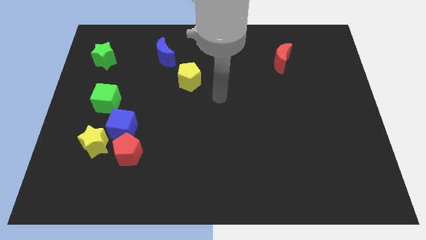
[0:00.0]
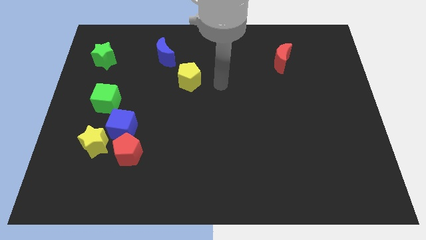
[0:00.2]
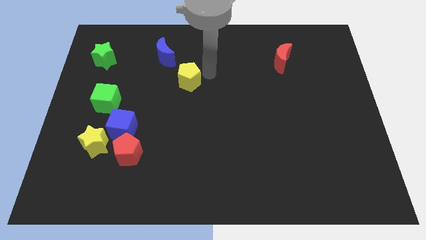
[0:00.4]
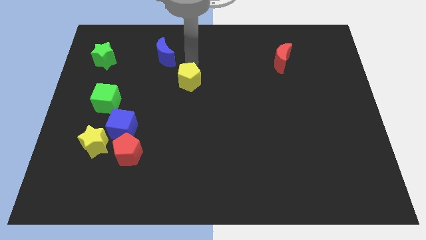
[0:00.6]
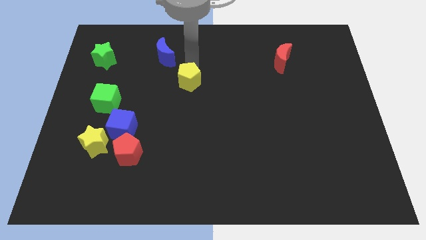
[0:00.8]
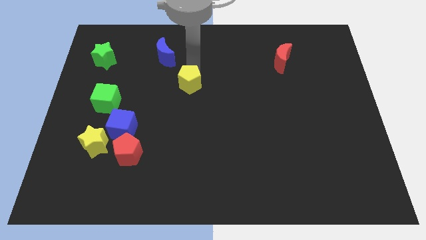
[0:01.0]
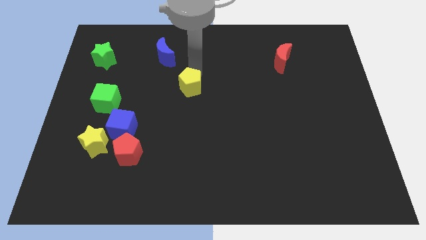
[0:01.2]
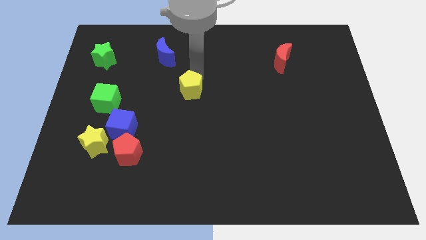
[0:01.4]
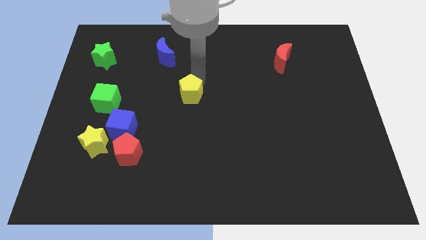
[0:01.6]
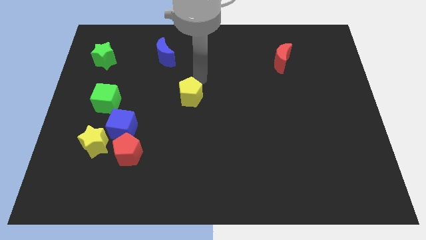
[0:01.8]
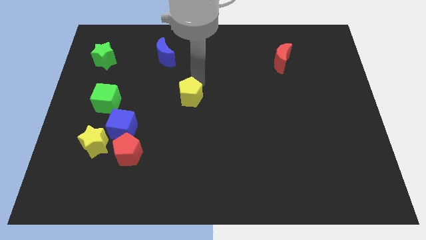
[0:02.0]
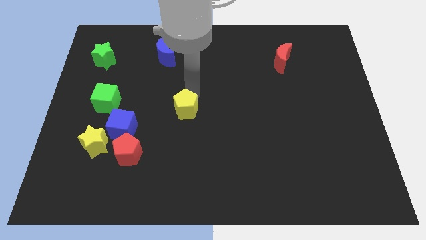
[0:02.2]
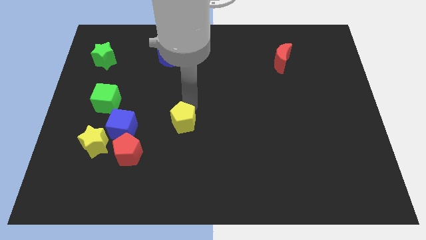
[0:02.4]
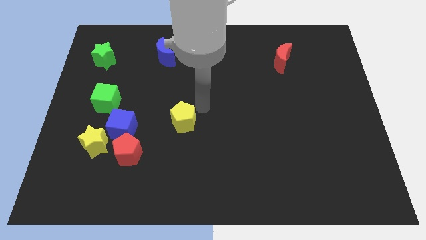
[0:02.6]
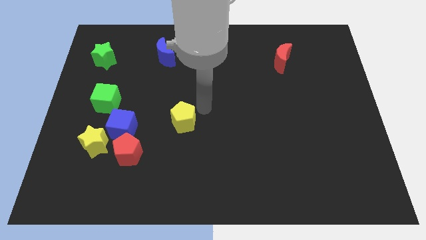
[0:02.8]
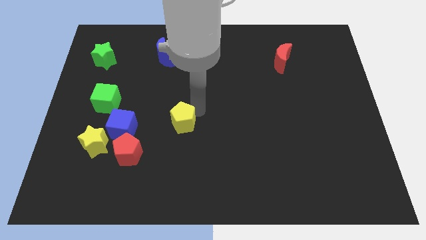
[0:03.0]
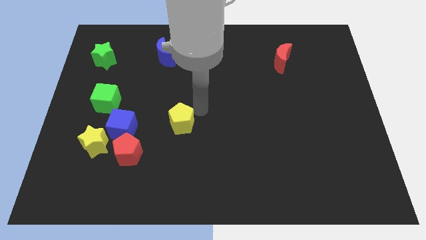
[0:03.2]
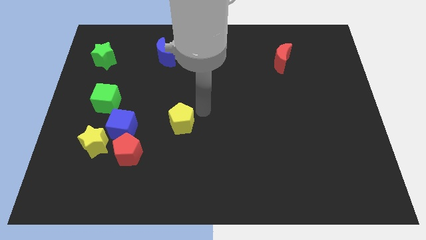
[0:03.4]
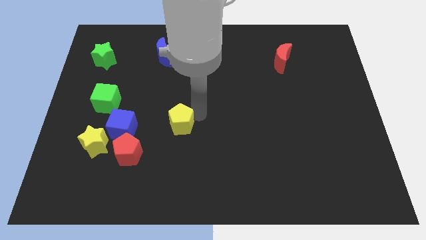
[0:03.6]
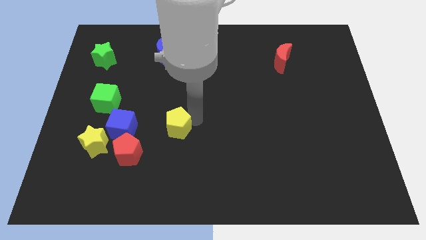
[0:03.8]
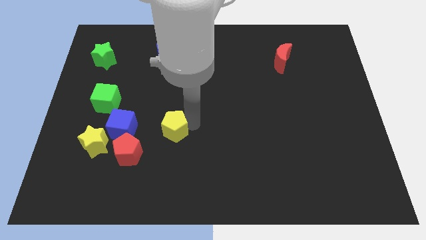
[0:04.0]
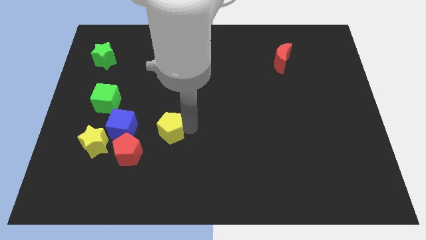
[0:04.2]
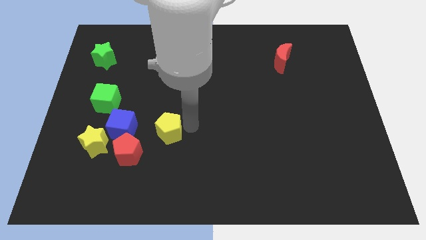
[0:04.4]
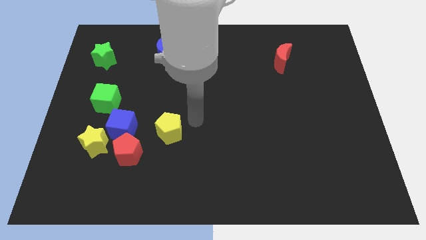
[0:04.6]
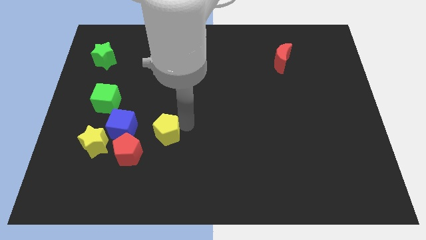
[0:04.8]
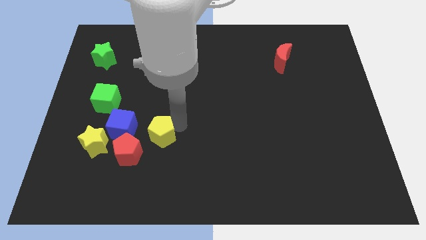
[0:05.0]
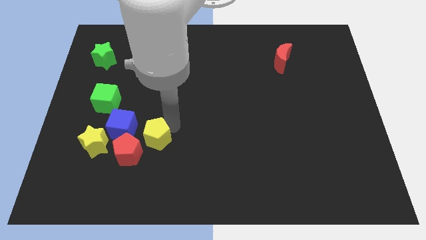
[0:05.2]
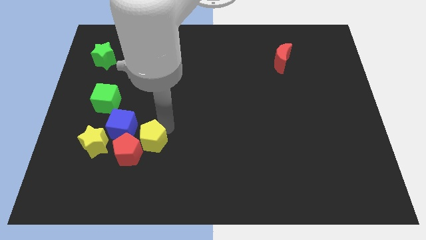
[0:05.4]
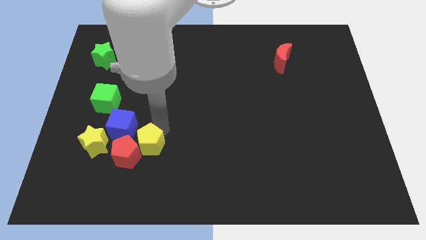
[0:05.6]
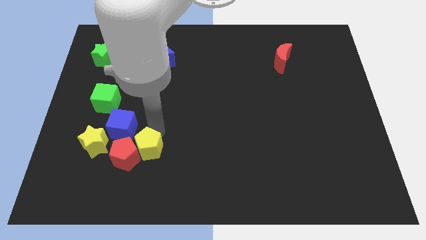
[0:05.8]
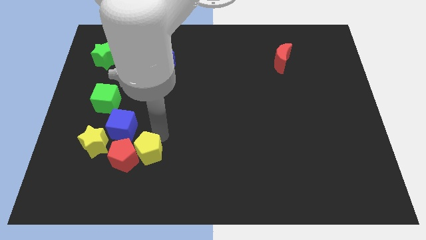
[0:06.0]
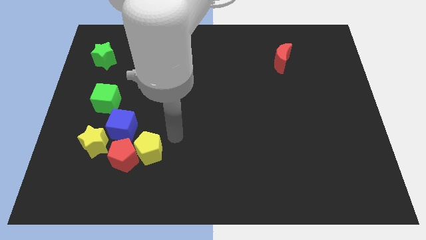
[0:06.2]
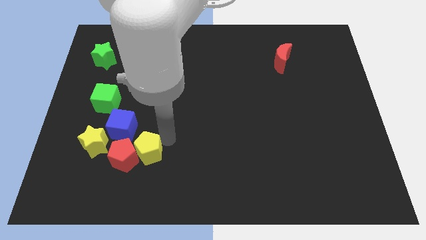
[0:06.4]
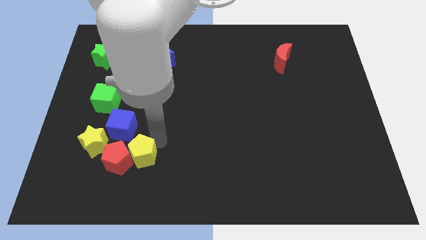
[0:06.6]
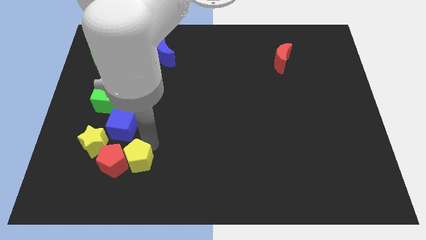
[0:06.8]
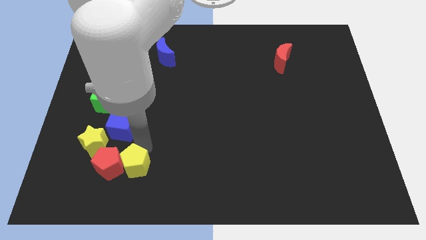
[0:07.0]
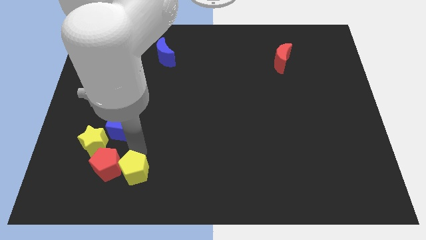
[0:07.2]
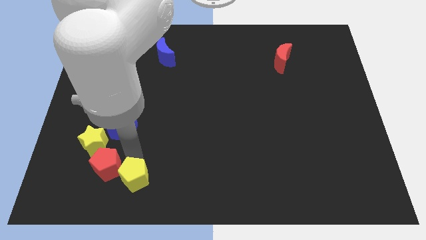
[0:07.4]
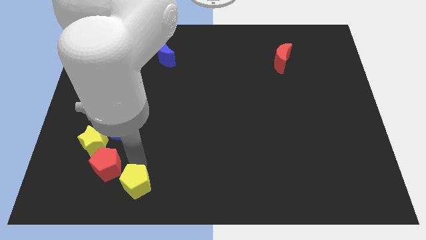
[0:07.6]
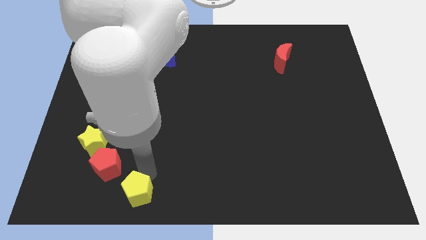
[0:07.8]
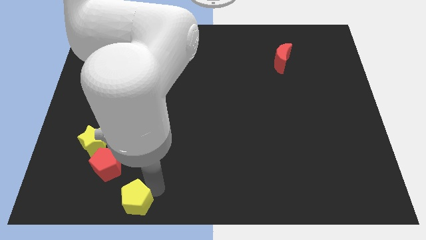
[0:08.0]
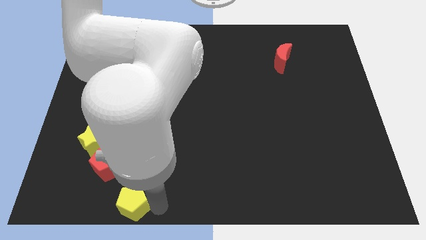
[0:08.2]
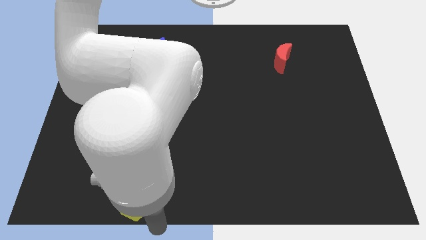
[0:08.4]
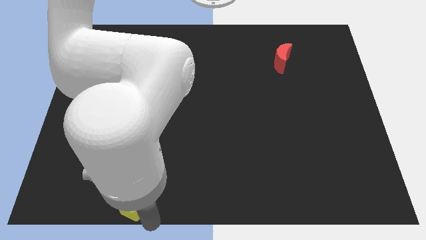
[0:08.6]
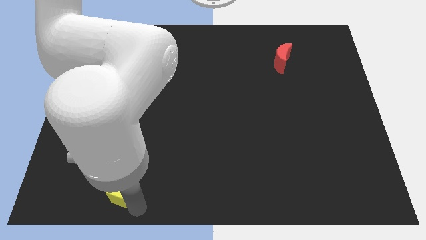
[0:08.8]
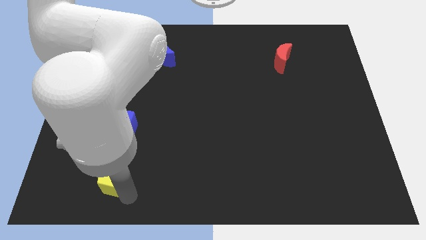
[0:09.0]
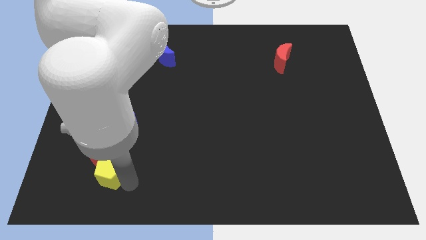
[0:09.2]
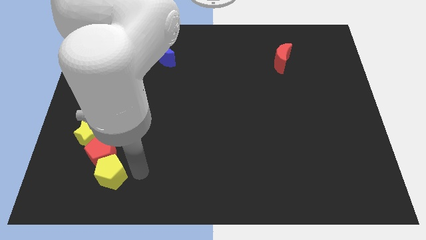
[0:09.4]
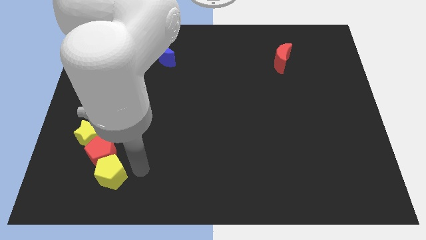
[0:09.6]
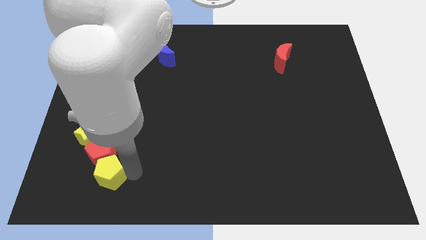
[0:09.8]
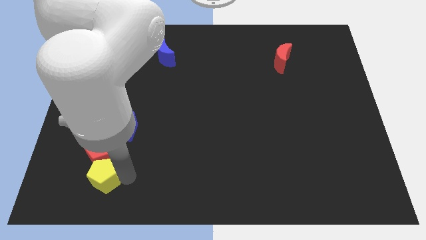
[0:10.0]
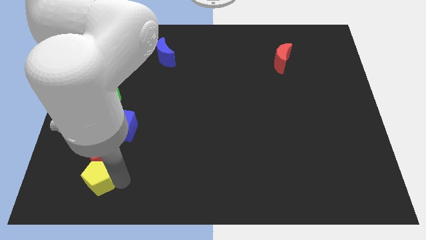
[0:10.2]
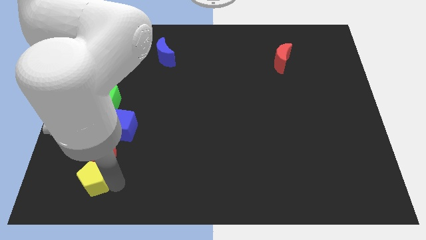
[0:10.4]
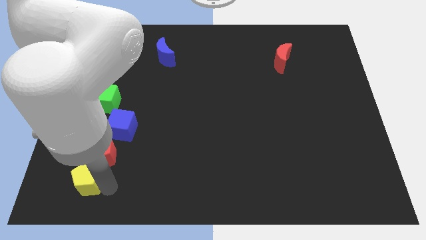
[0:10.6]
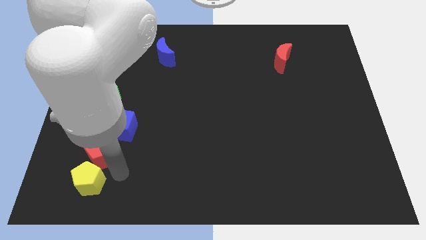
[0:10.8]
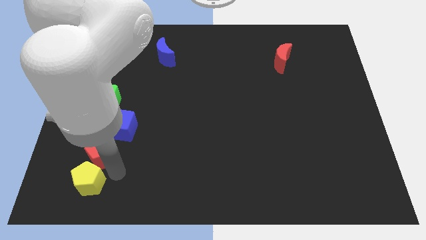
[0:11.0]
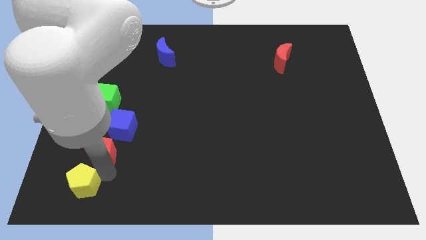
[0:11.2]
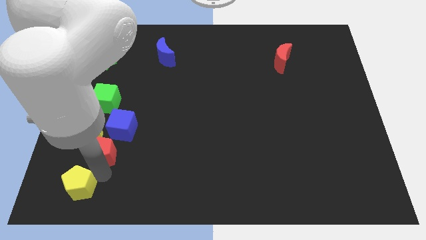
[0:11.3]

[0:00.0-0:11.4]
move the yellow pentagon to the bottom left corner
